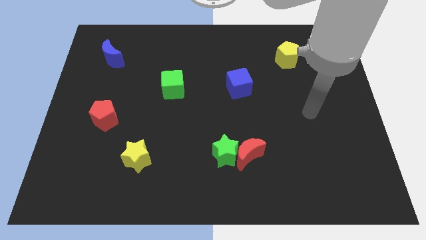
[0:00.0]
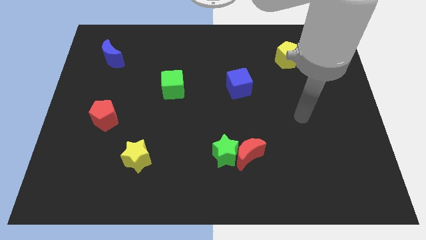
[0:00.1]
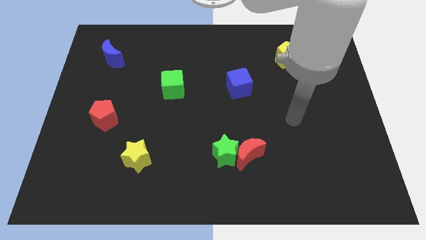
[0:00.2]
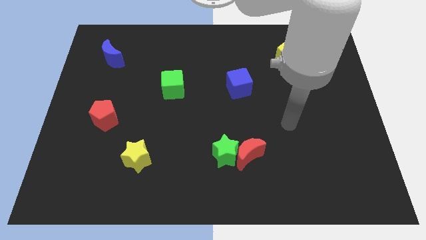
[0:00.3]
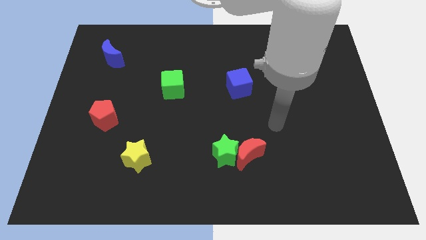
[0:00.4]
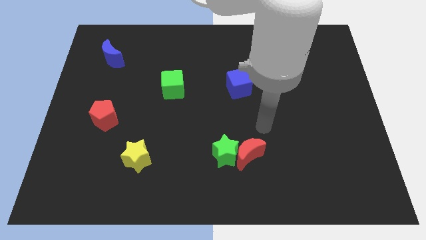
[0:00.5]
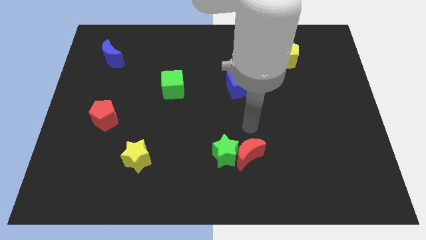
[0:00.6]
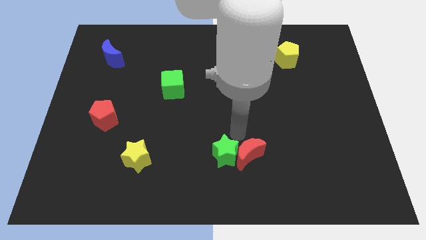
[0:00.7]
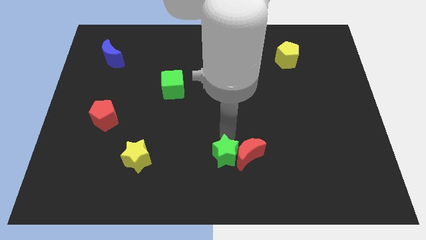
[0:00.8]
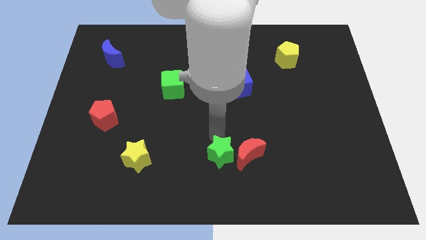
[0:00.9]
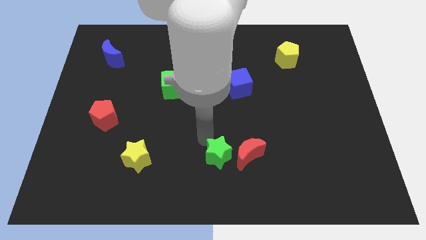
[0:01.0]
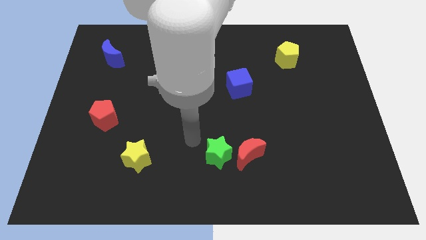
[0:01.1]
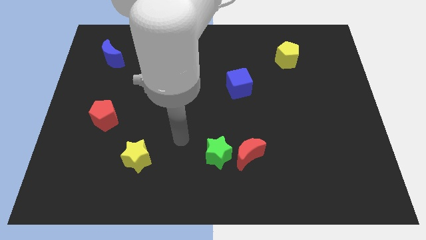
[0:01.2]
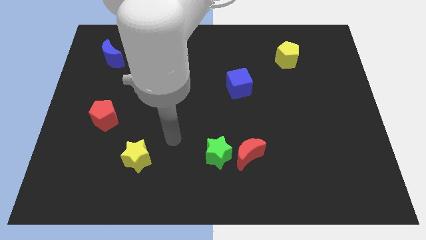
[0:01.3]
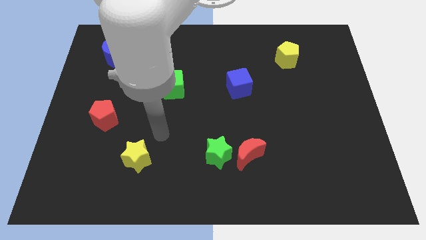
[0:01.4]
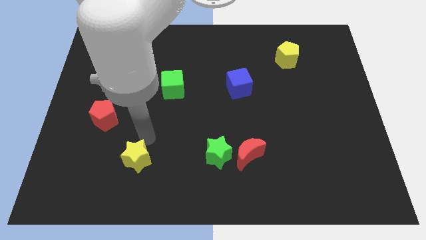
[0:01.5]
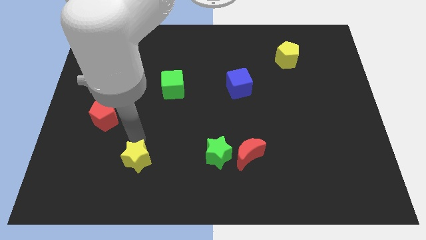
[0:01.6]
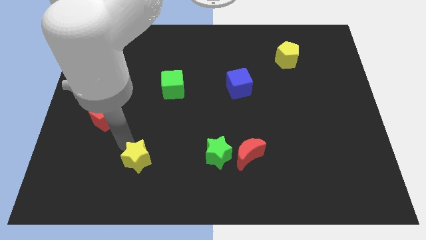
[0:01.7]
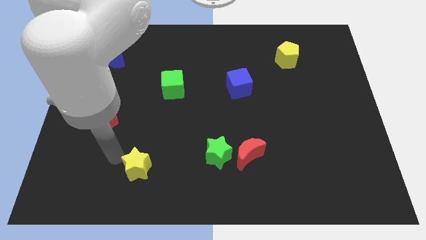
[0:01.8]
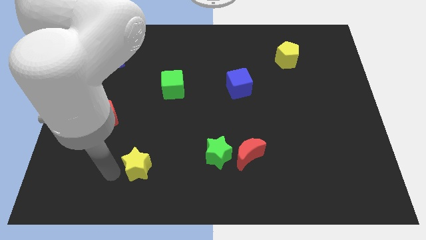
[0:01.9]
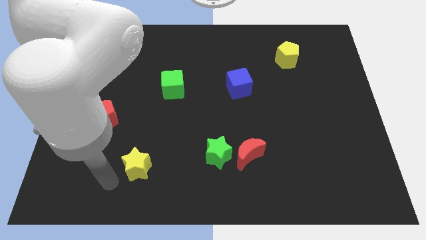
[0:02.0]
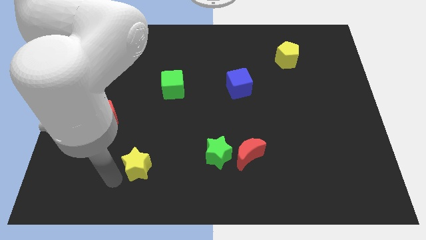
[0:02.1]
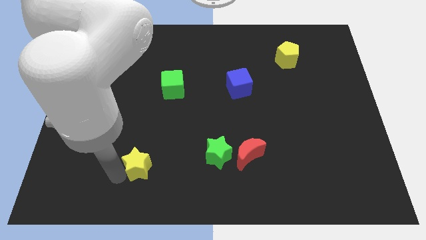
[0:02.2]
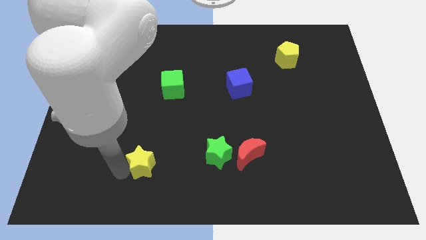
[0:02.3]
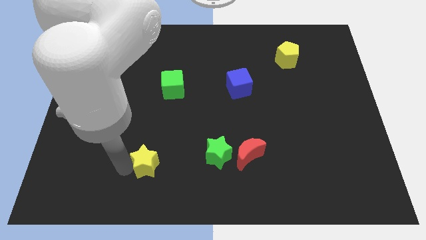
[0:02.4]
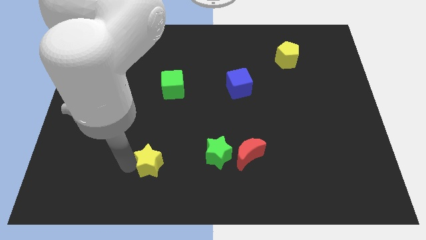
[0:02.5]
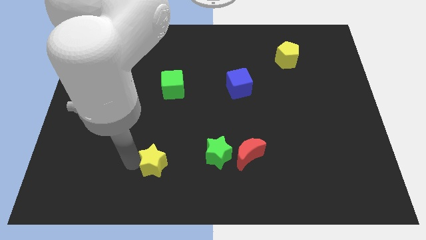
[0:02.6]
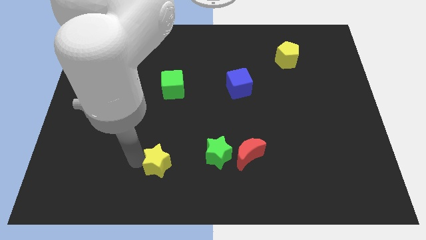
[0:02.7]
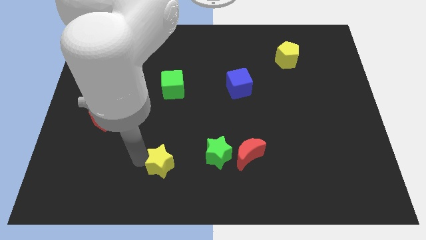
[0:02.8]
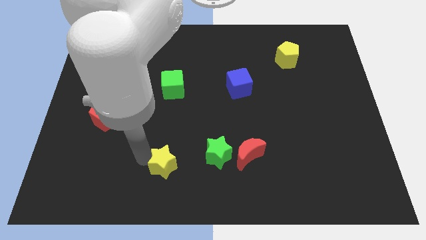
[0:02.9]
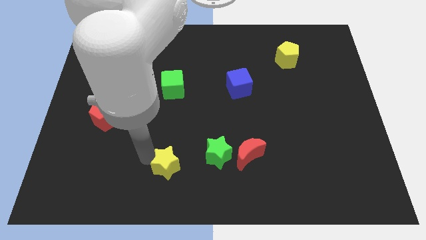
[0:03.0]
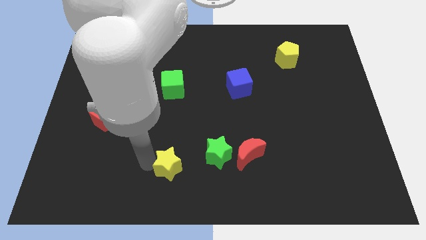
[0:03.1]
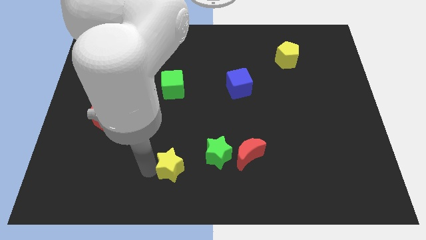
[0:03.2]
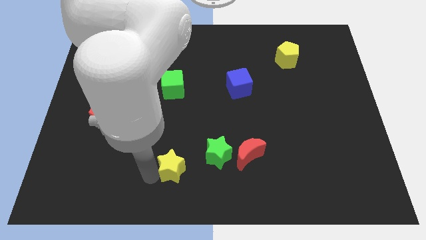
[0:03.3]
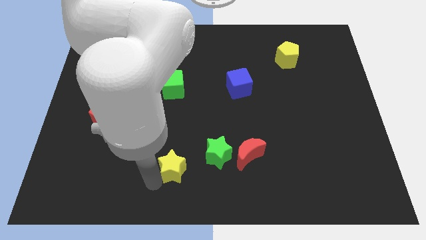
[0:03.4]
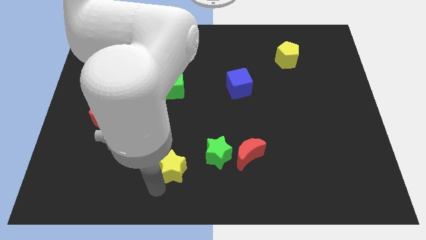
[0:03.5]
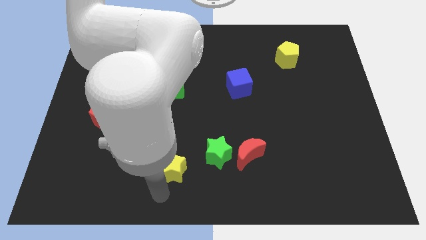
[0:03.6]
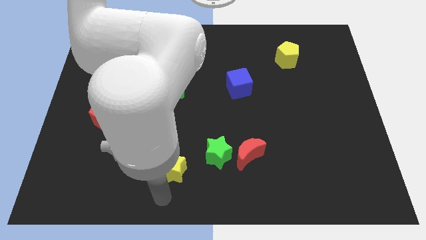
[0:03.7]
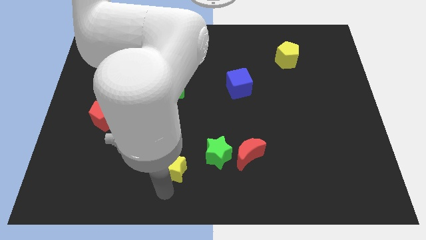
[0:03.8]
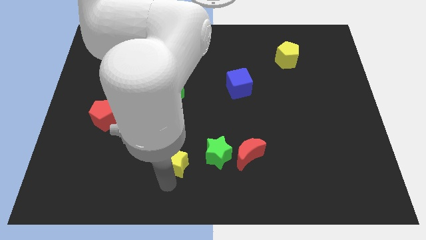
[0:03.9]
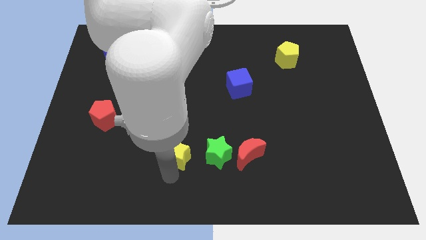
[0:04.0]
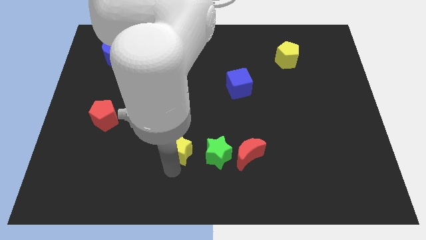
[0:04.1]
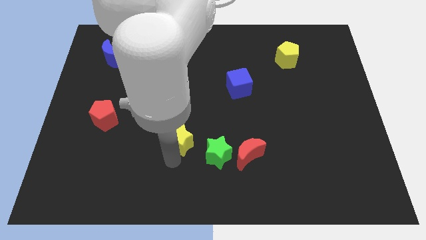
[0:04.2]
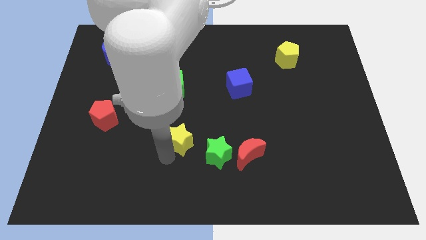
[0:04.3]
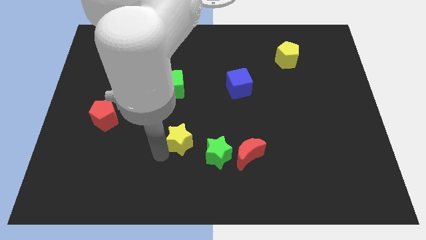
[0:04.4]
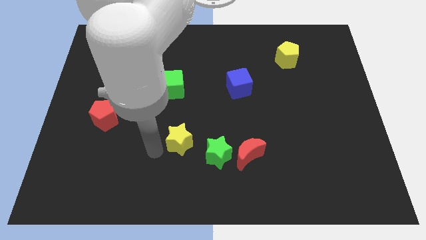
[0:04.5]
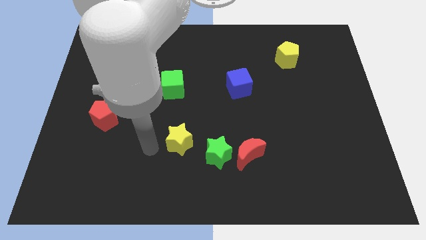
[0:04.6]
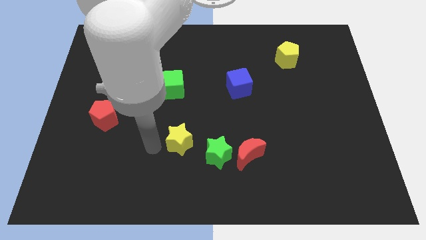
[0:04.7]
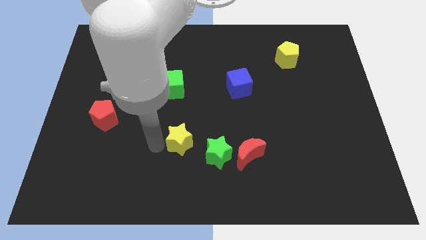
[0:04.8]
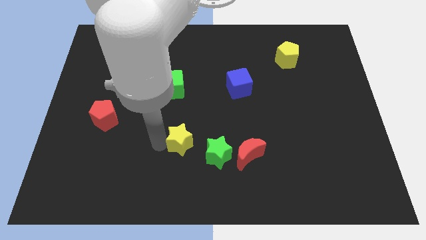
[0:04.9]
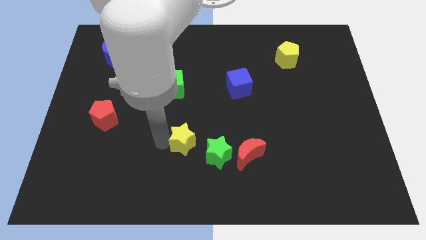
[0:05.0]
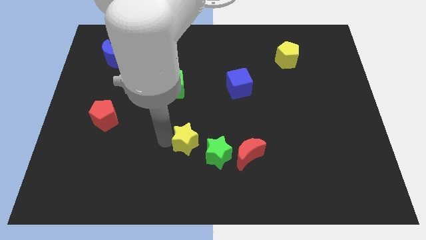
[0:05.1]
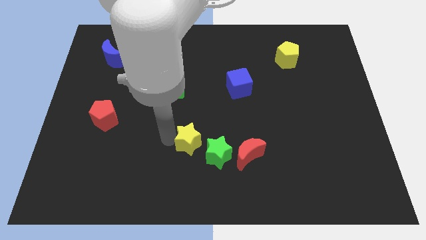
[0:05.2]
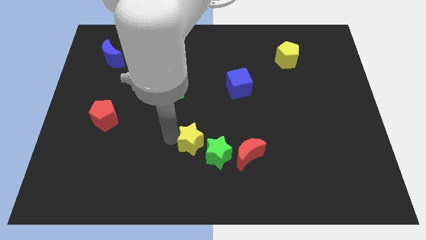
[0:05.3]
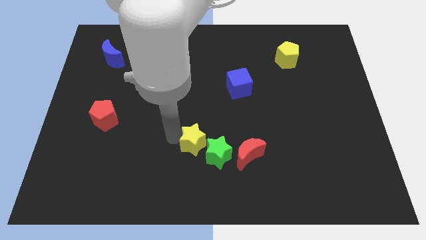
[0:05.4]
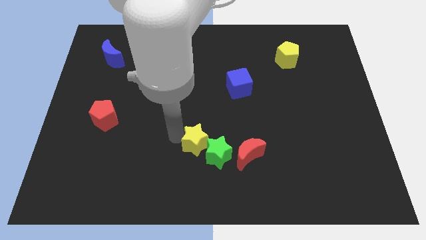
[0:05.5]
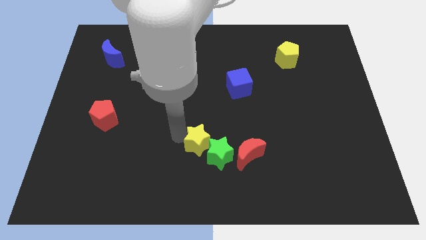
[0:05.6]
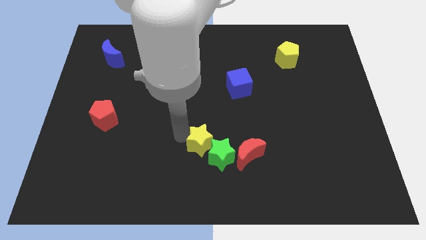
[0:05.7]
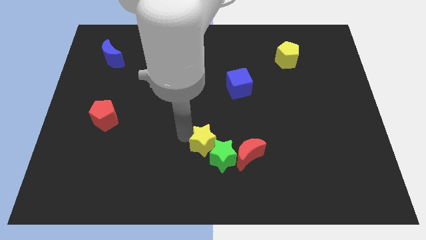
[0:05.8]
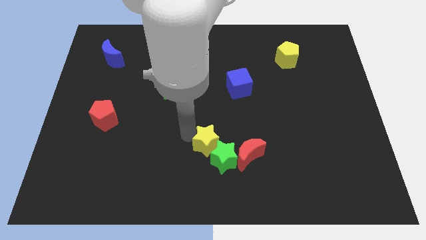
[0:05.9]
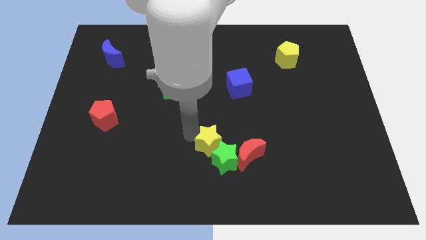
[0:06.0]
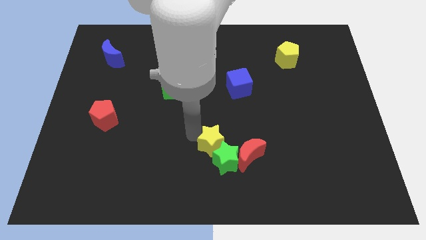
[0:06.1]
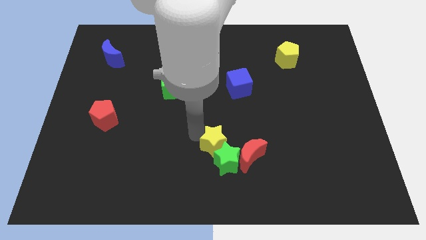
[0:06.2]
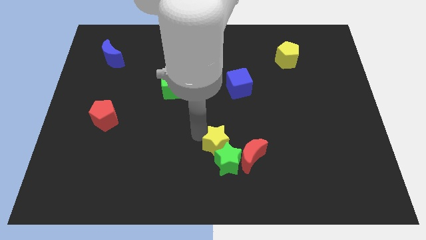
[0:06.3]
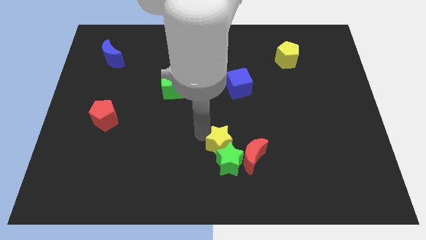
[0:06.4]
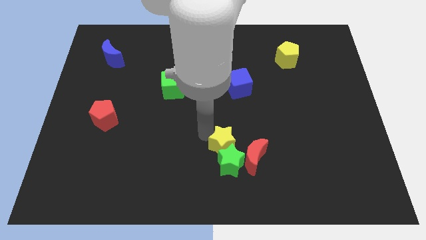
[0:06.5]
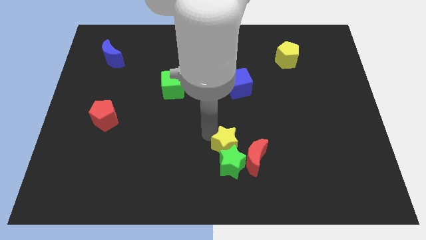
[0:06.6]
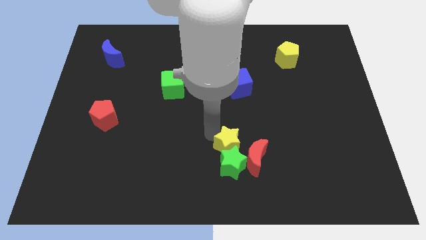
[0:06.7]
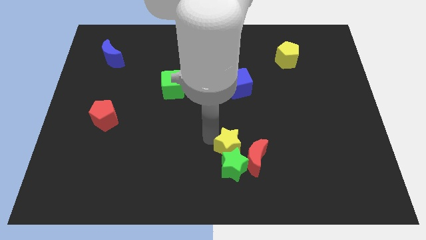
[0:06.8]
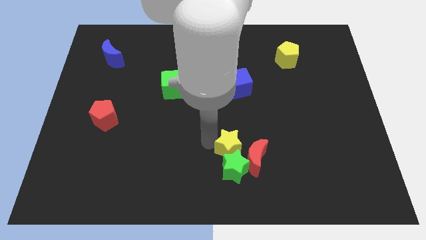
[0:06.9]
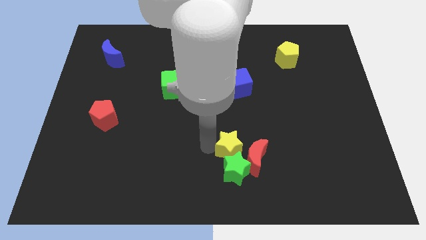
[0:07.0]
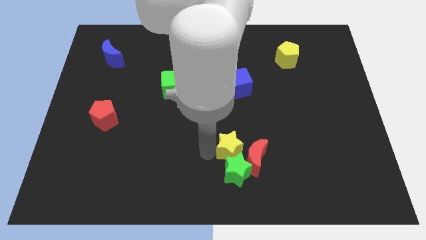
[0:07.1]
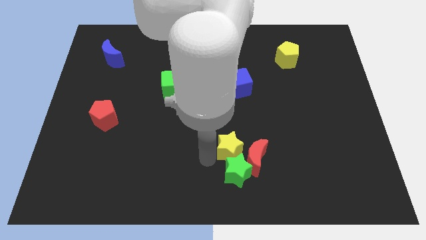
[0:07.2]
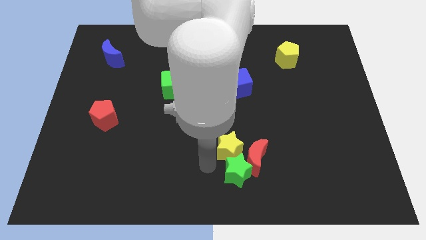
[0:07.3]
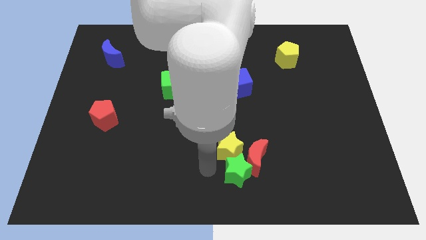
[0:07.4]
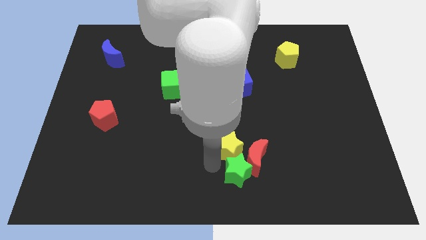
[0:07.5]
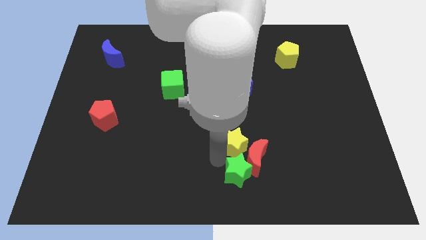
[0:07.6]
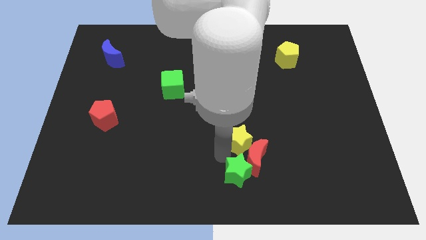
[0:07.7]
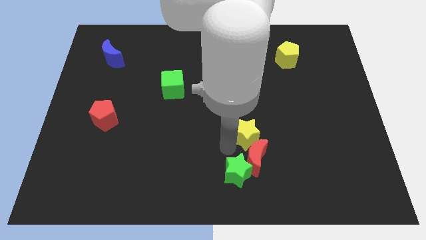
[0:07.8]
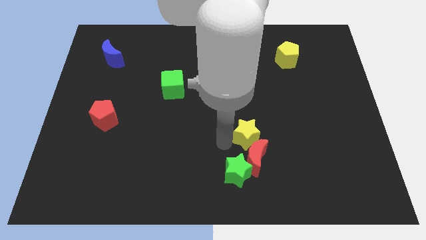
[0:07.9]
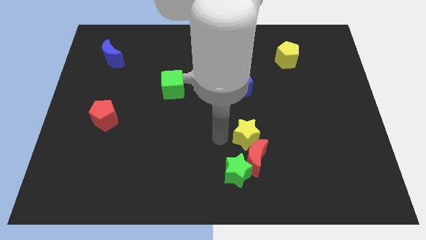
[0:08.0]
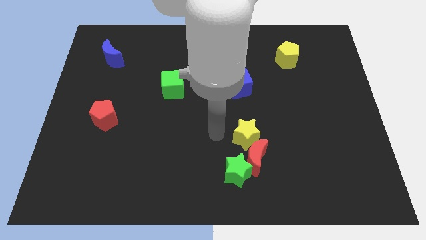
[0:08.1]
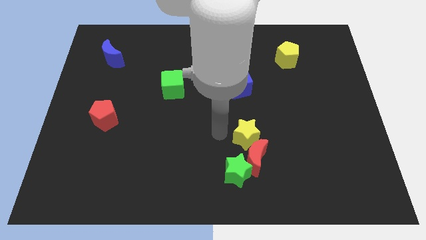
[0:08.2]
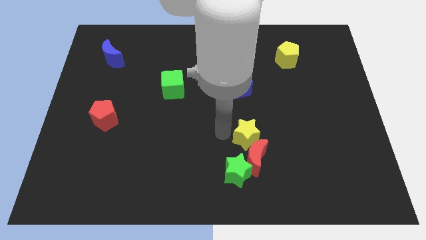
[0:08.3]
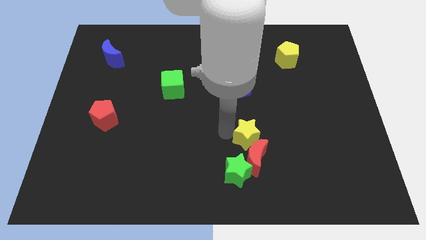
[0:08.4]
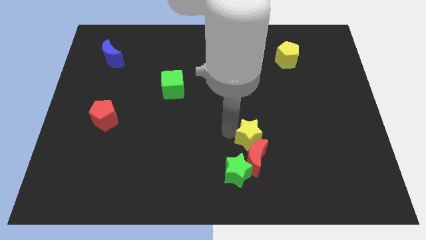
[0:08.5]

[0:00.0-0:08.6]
slide the yellow star to the top right of the red moon
